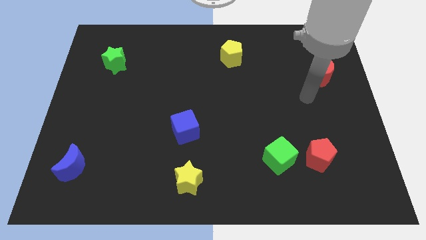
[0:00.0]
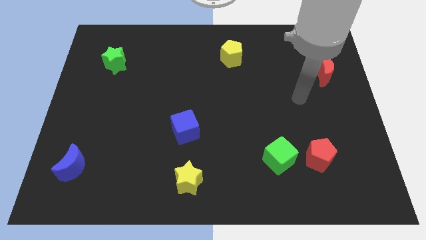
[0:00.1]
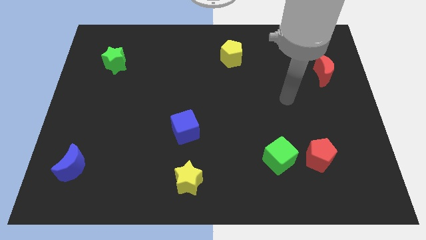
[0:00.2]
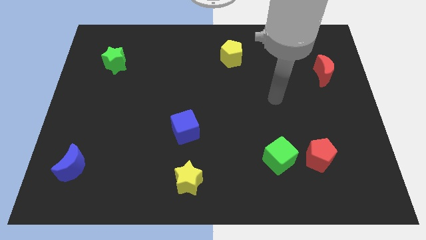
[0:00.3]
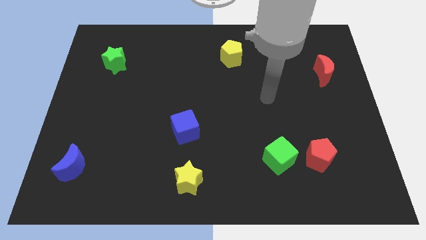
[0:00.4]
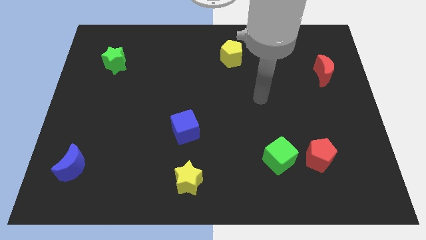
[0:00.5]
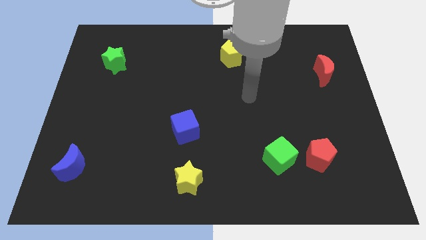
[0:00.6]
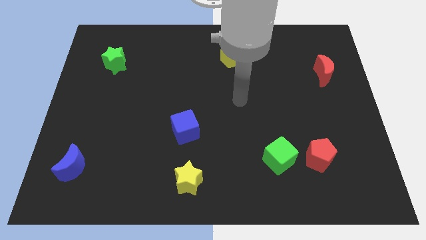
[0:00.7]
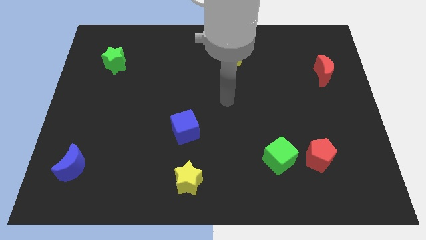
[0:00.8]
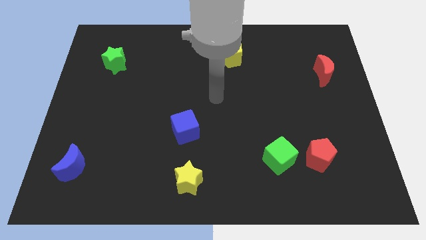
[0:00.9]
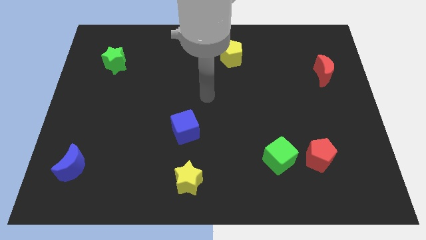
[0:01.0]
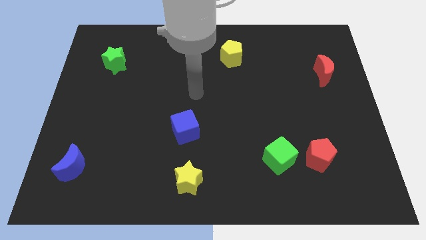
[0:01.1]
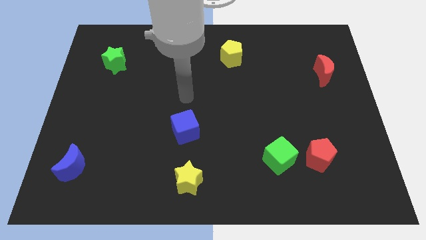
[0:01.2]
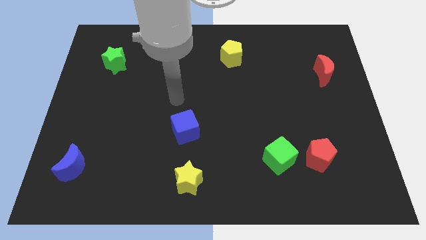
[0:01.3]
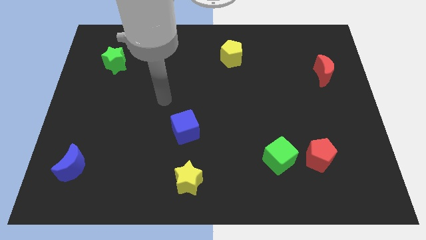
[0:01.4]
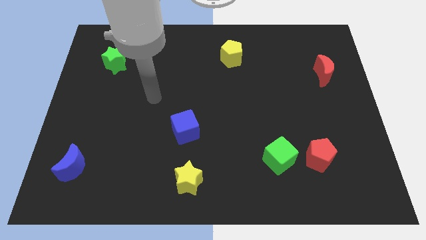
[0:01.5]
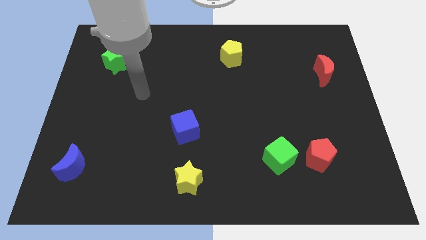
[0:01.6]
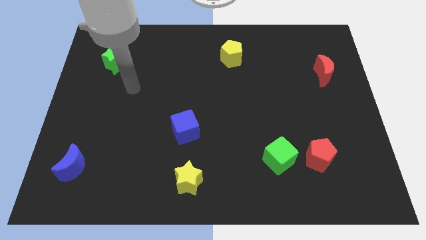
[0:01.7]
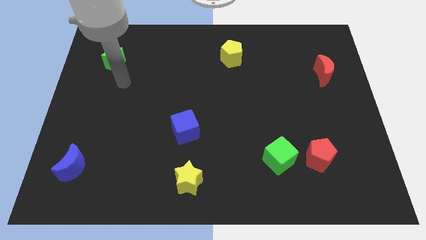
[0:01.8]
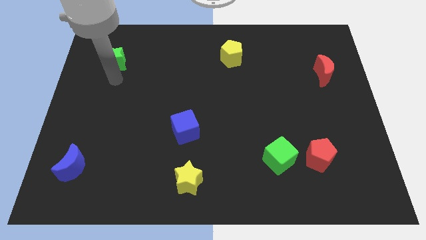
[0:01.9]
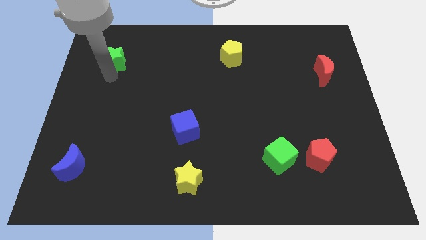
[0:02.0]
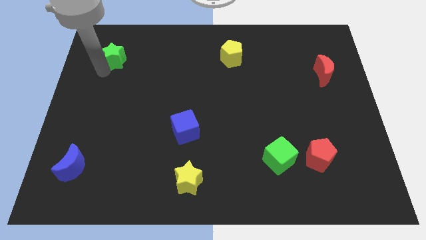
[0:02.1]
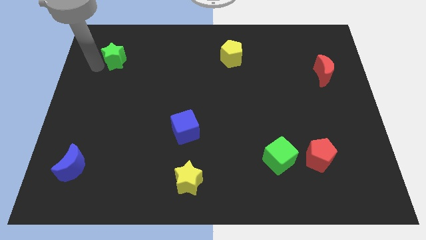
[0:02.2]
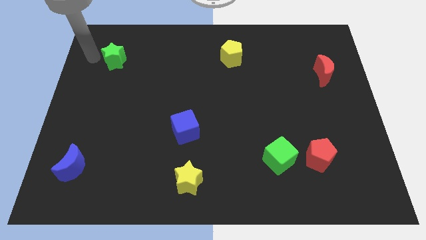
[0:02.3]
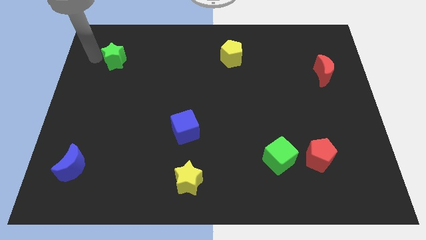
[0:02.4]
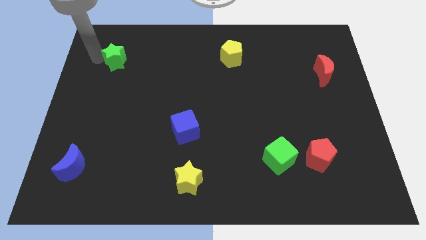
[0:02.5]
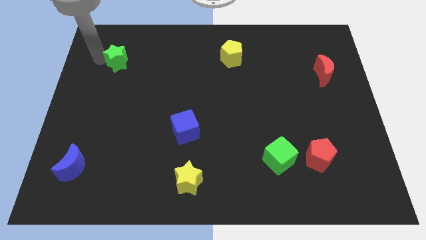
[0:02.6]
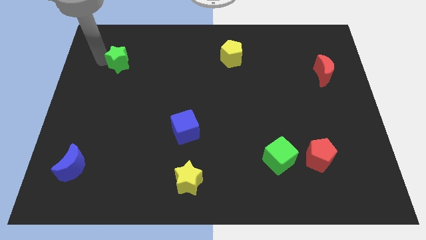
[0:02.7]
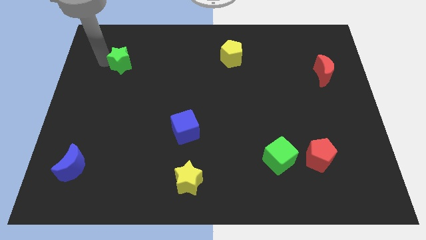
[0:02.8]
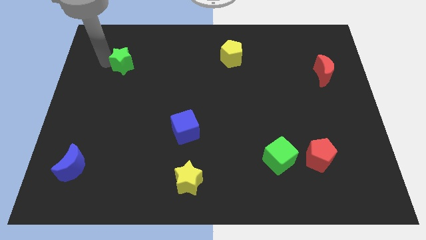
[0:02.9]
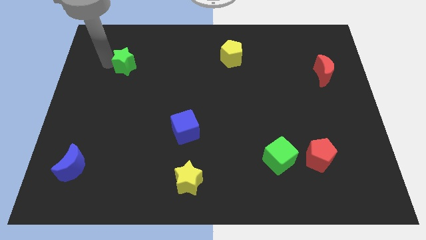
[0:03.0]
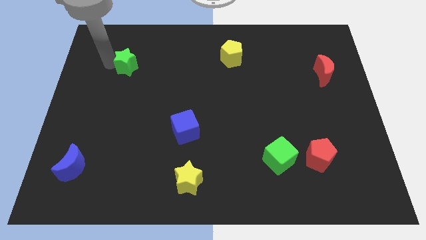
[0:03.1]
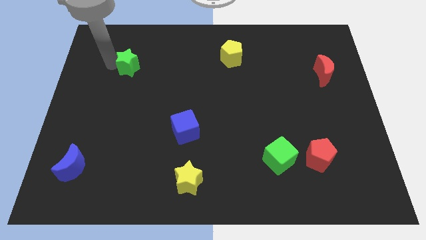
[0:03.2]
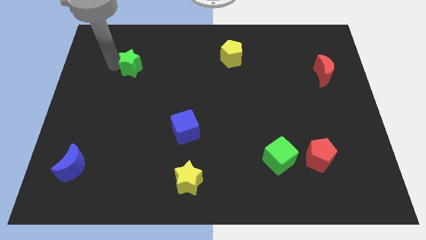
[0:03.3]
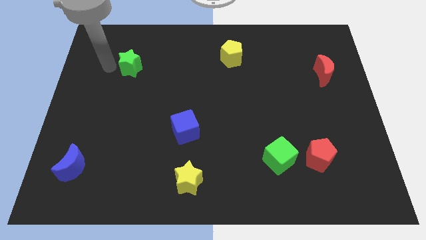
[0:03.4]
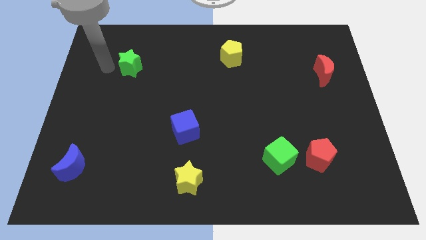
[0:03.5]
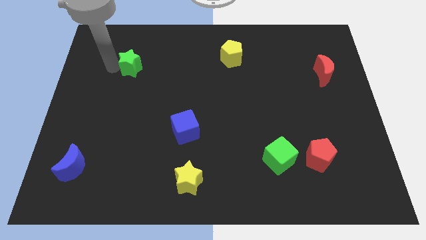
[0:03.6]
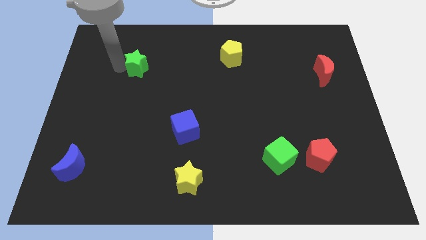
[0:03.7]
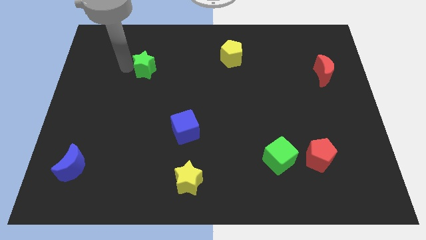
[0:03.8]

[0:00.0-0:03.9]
slightly move the green star to the right

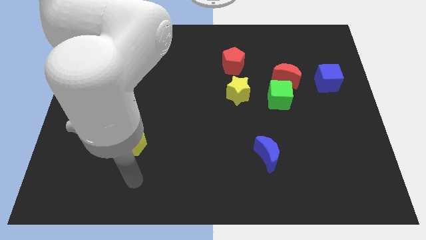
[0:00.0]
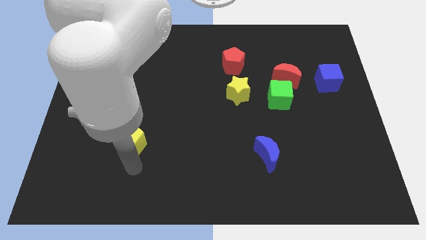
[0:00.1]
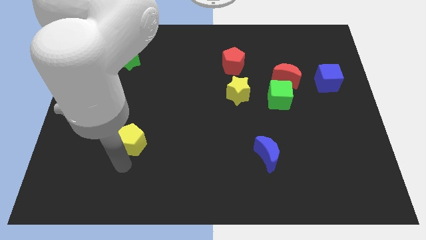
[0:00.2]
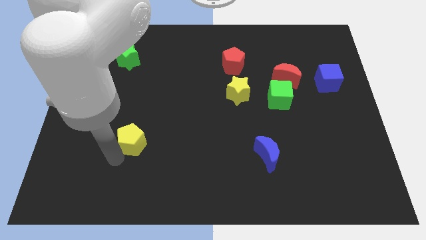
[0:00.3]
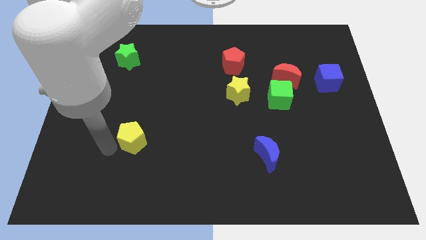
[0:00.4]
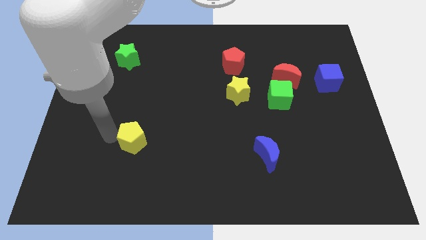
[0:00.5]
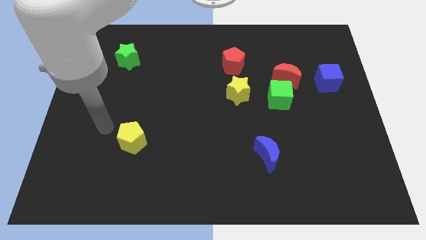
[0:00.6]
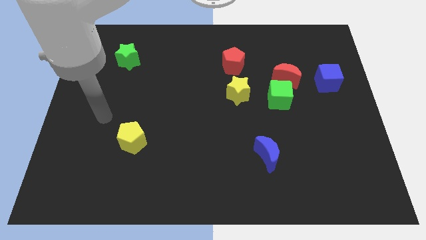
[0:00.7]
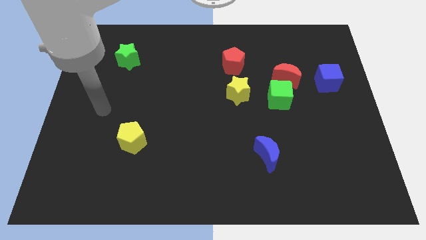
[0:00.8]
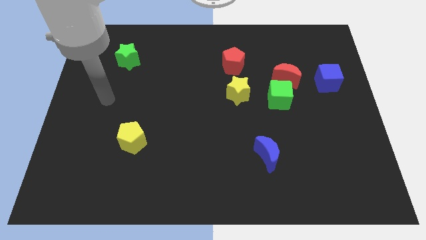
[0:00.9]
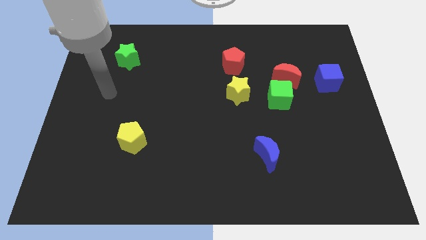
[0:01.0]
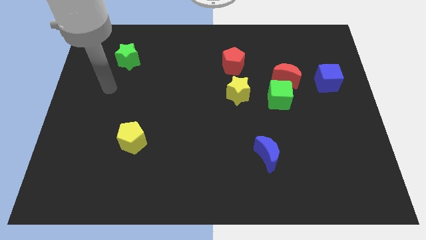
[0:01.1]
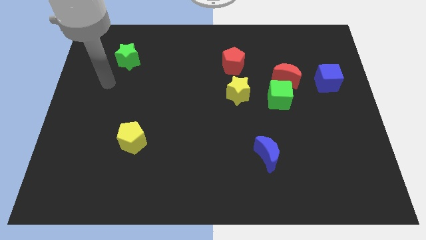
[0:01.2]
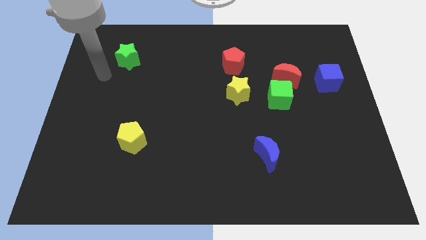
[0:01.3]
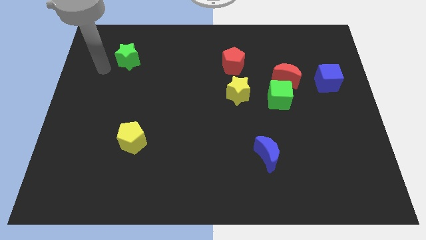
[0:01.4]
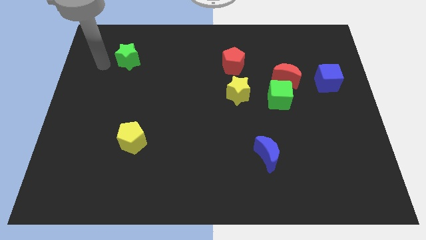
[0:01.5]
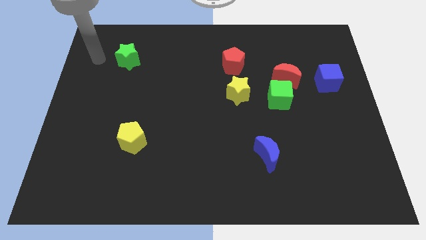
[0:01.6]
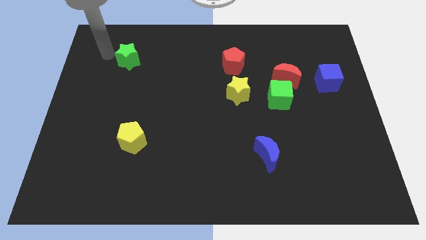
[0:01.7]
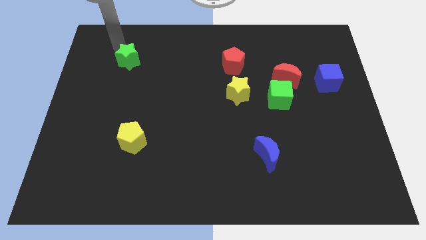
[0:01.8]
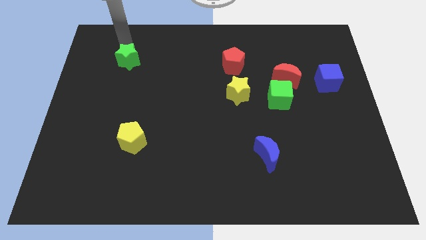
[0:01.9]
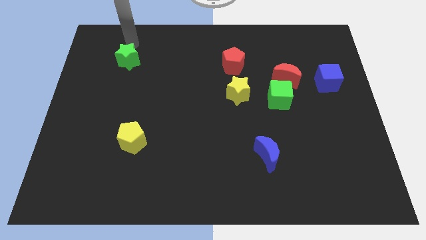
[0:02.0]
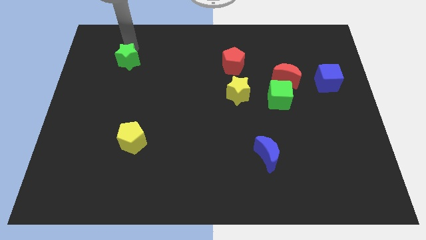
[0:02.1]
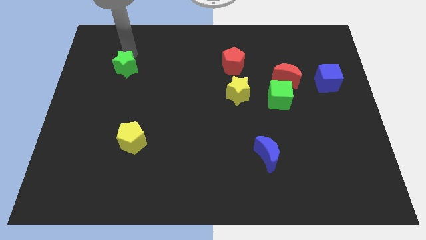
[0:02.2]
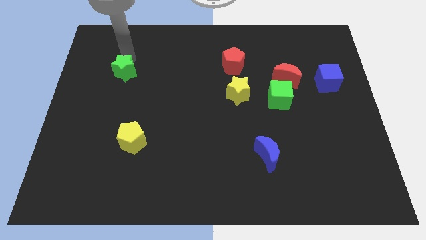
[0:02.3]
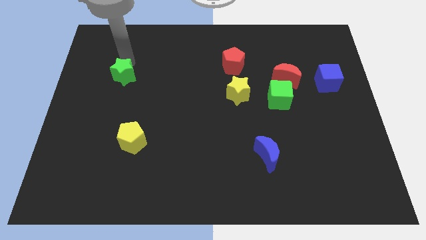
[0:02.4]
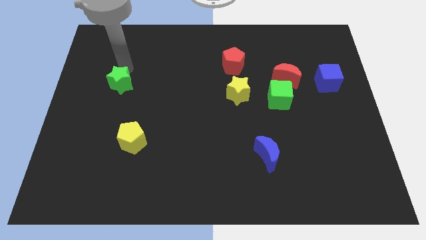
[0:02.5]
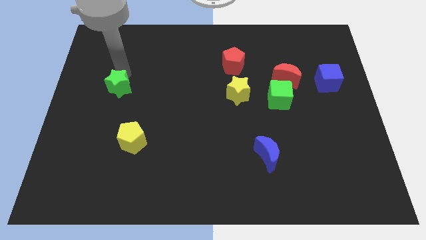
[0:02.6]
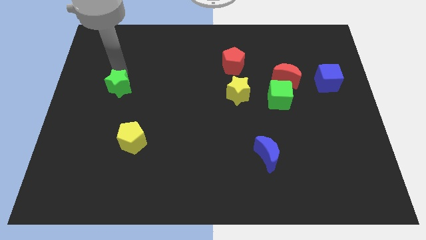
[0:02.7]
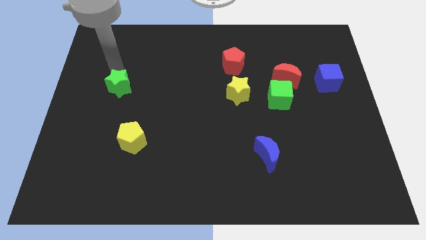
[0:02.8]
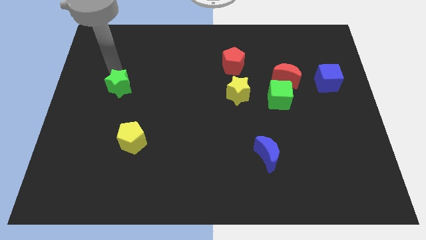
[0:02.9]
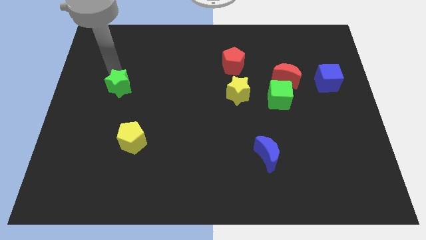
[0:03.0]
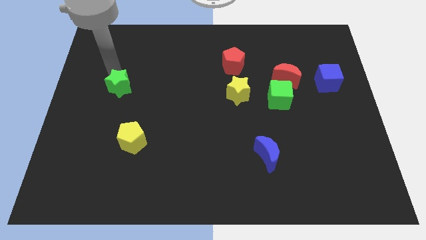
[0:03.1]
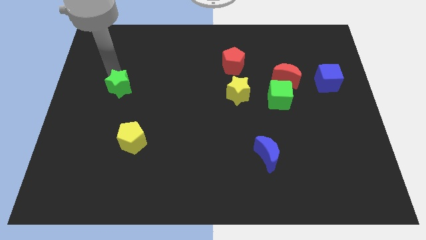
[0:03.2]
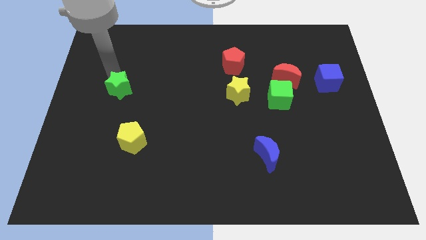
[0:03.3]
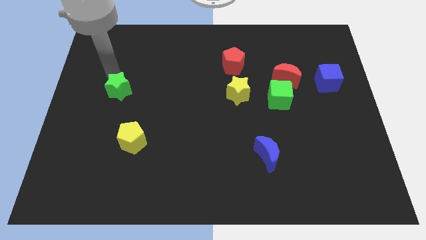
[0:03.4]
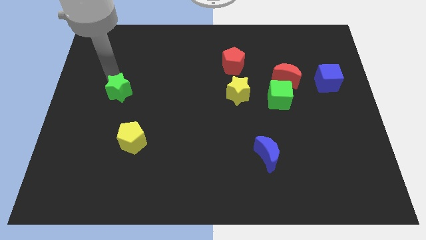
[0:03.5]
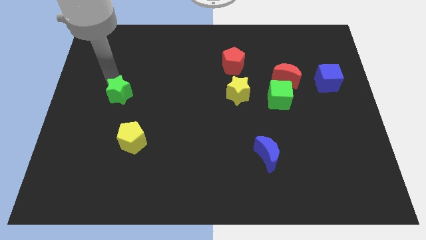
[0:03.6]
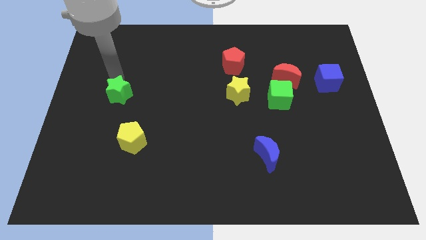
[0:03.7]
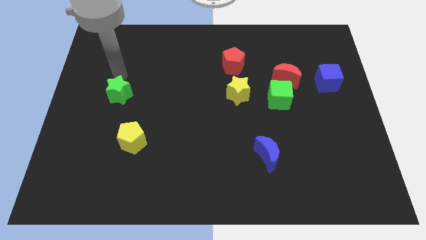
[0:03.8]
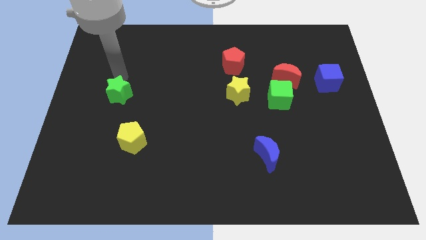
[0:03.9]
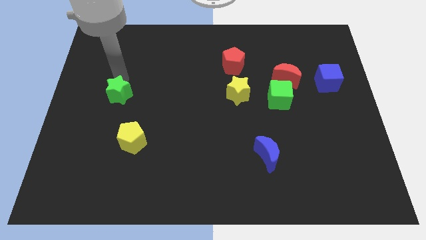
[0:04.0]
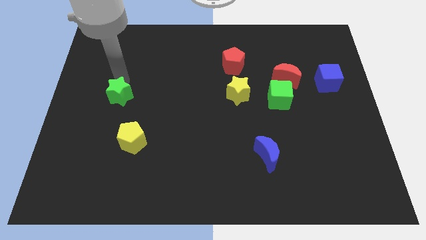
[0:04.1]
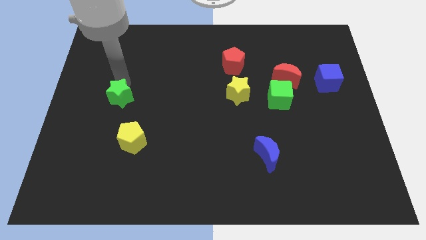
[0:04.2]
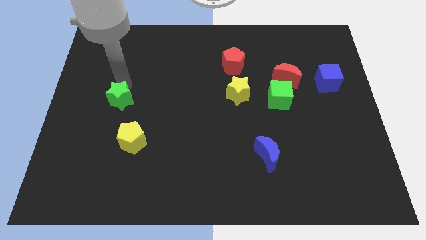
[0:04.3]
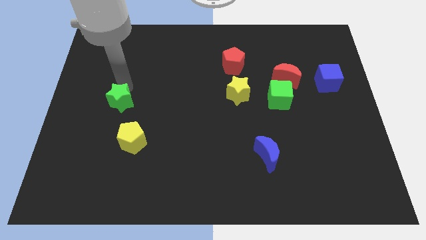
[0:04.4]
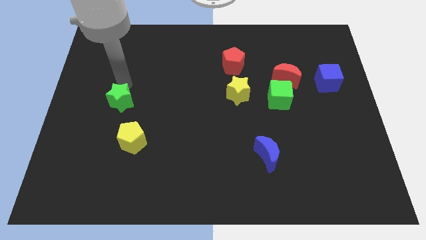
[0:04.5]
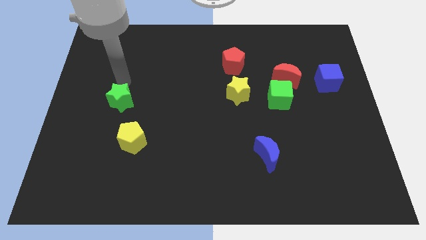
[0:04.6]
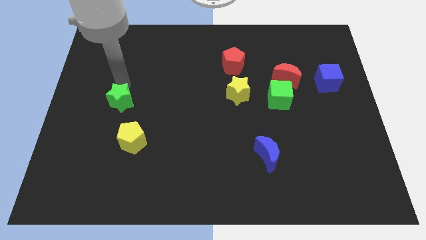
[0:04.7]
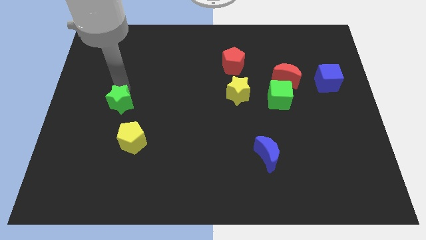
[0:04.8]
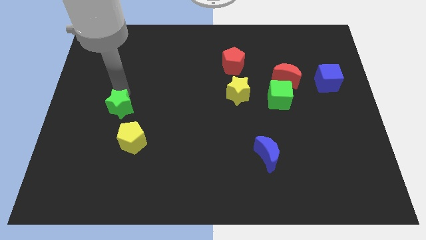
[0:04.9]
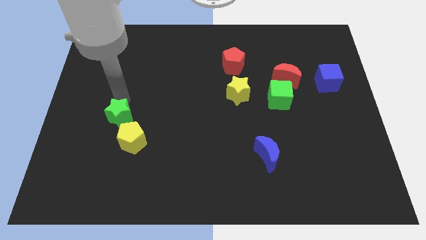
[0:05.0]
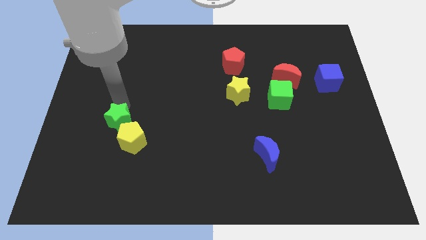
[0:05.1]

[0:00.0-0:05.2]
move the green star downwards
